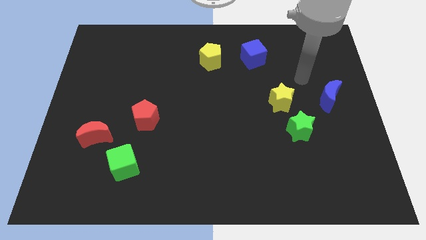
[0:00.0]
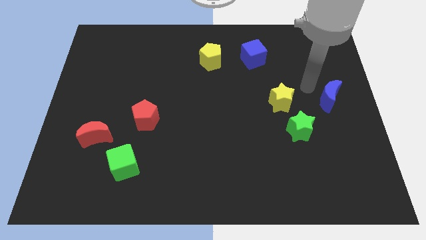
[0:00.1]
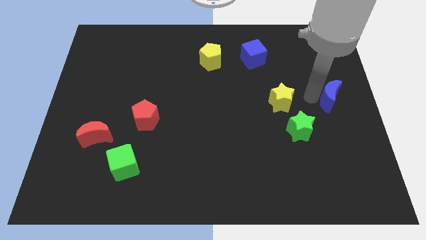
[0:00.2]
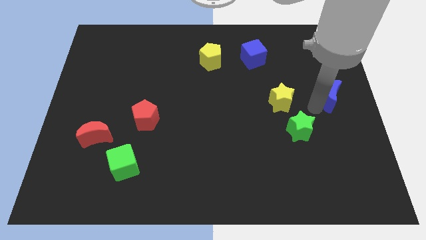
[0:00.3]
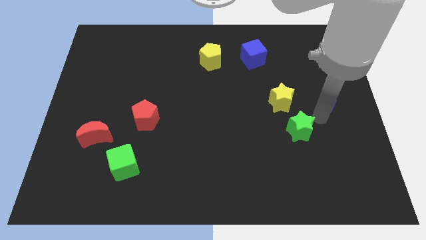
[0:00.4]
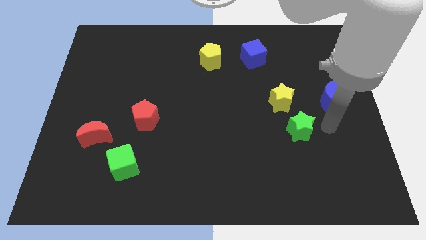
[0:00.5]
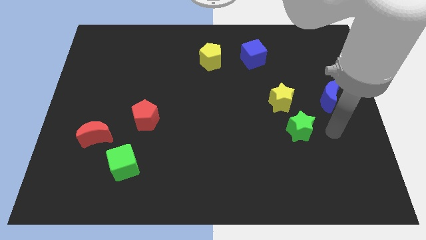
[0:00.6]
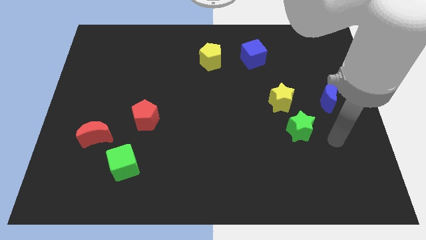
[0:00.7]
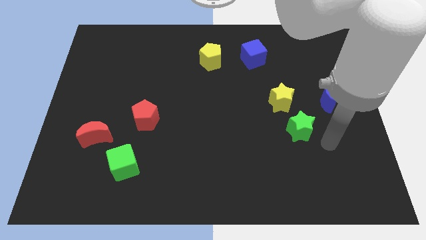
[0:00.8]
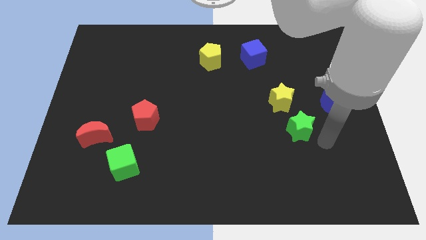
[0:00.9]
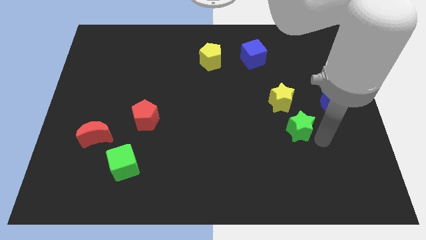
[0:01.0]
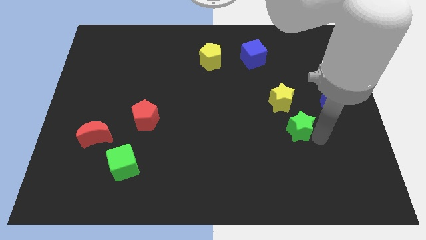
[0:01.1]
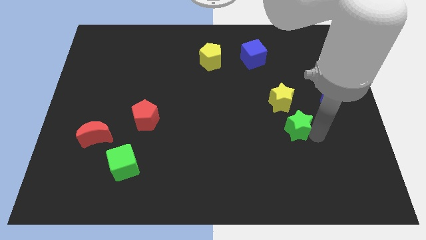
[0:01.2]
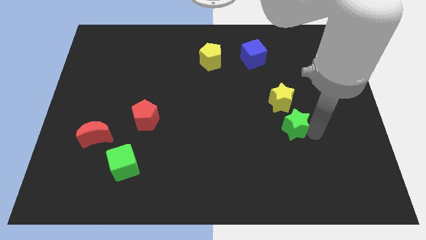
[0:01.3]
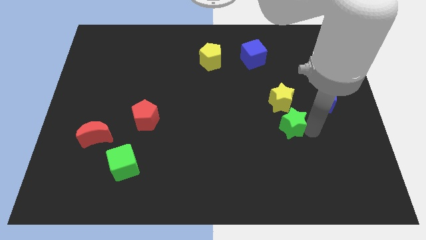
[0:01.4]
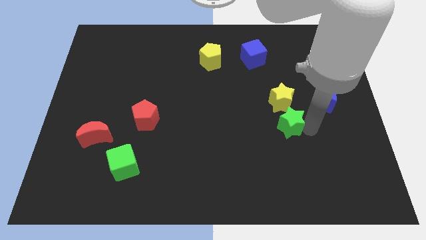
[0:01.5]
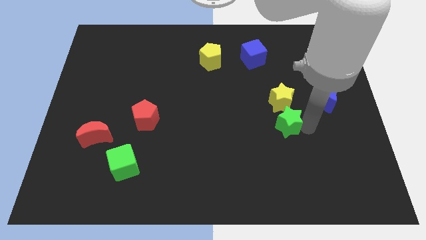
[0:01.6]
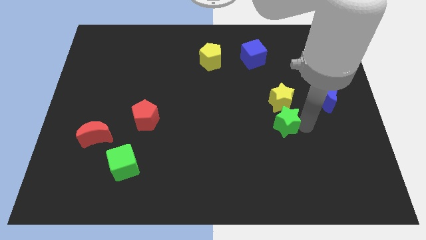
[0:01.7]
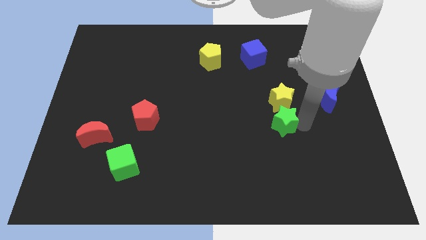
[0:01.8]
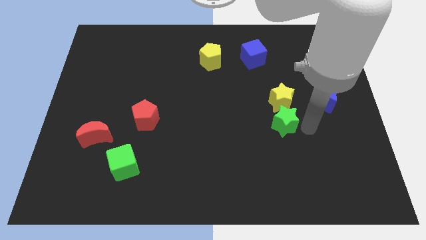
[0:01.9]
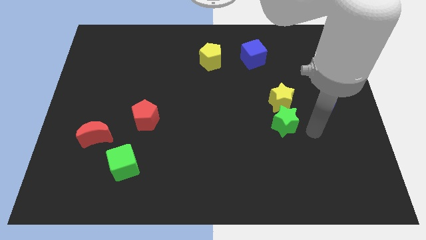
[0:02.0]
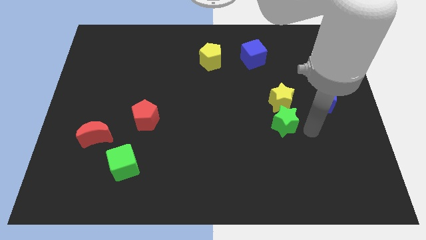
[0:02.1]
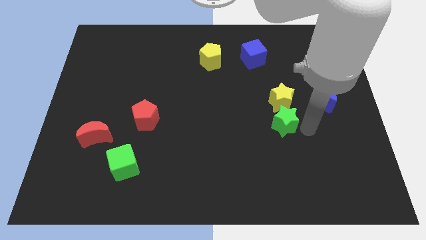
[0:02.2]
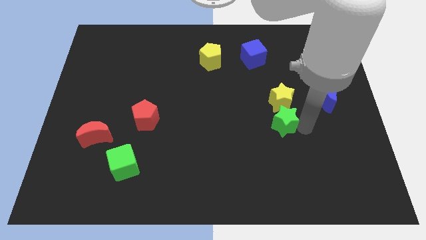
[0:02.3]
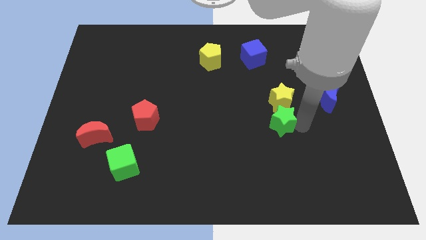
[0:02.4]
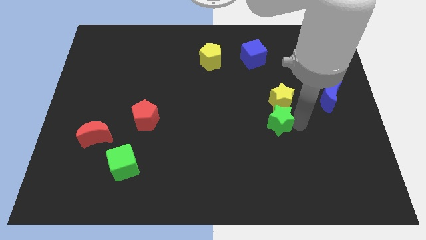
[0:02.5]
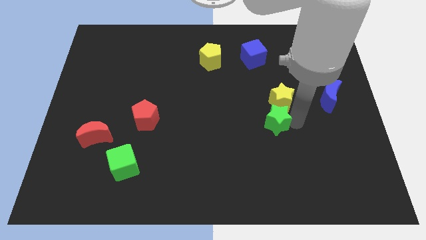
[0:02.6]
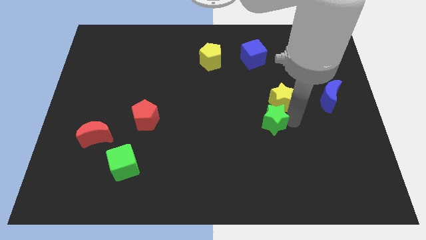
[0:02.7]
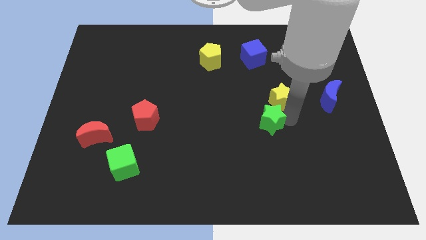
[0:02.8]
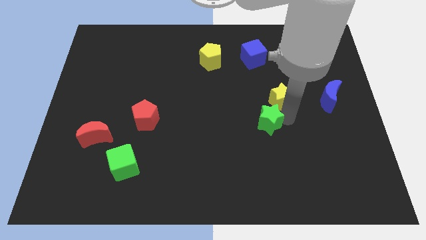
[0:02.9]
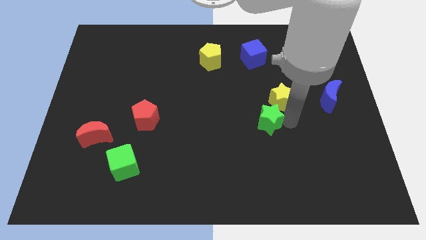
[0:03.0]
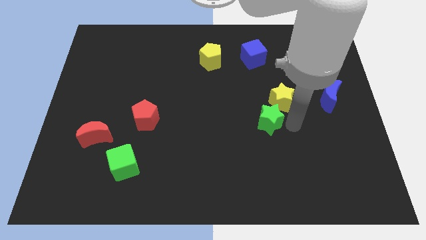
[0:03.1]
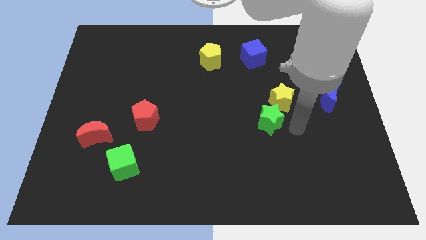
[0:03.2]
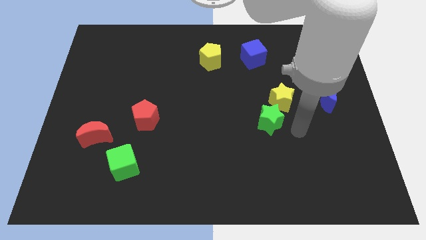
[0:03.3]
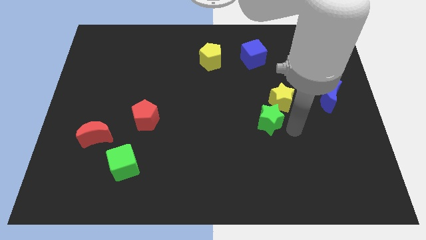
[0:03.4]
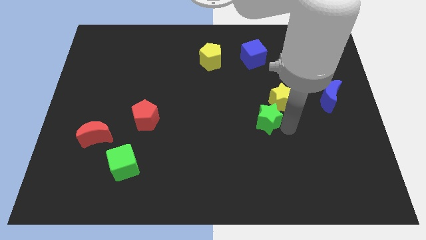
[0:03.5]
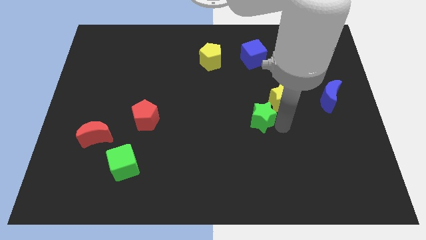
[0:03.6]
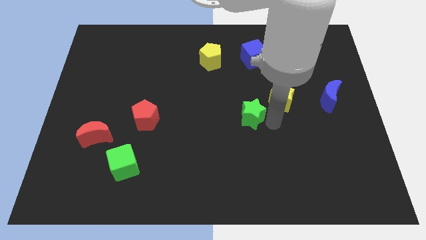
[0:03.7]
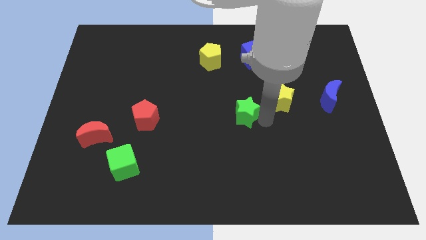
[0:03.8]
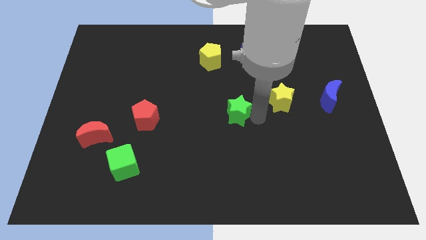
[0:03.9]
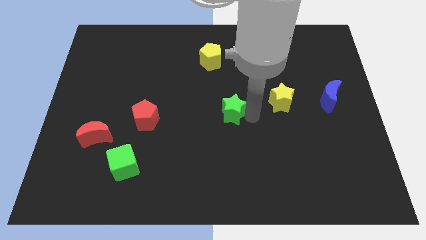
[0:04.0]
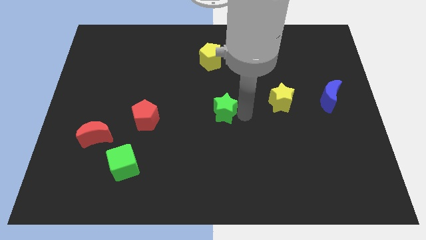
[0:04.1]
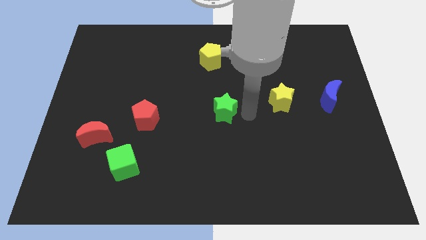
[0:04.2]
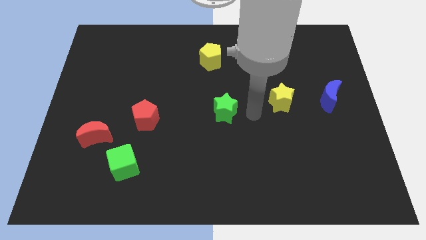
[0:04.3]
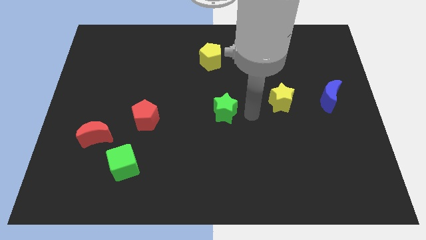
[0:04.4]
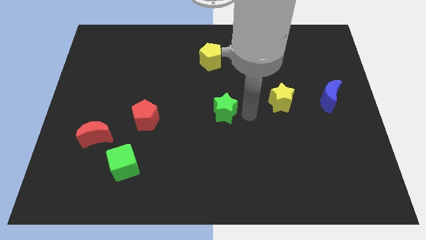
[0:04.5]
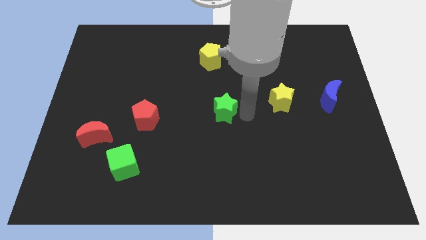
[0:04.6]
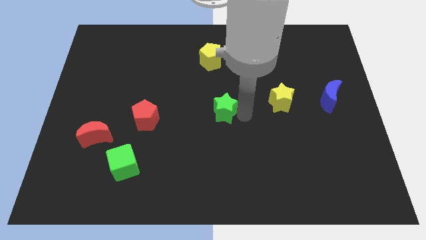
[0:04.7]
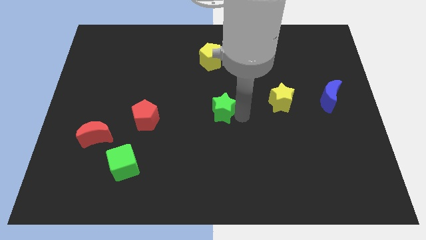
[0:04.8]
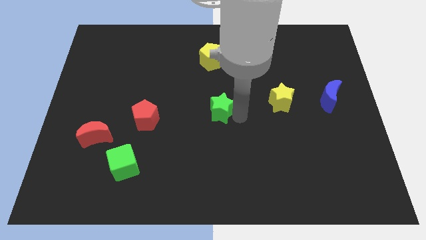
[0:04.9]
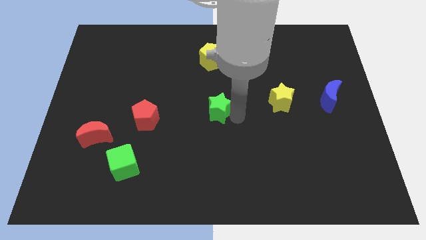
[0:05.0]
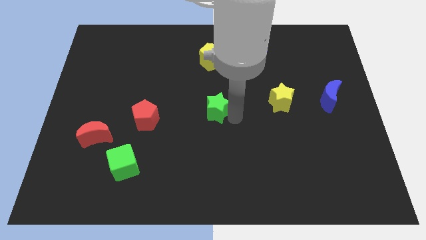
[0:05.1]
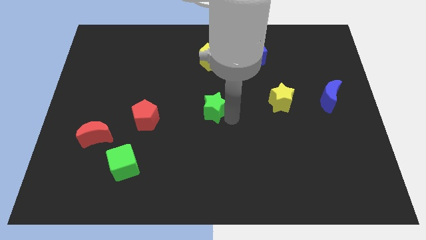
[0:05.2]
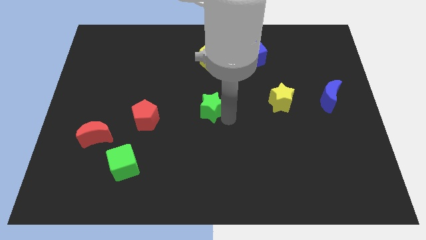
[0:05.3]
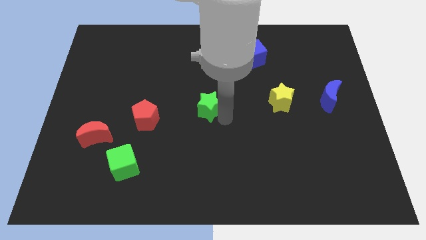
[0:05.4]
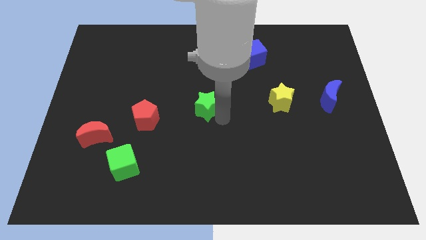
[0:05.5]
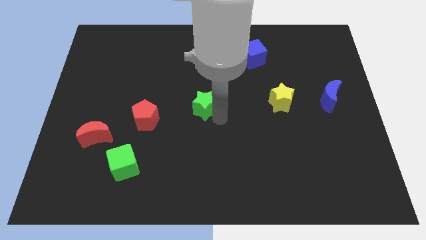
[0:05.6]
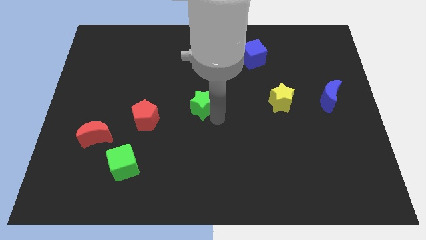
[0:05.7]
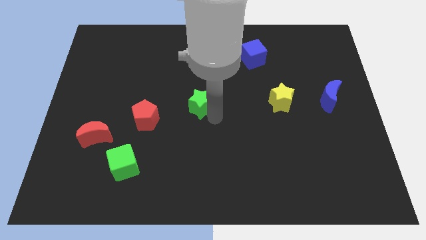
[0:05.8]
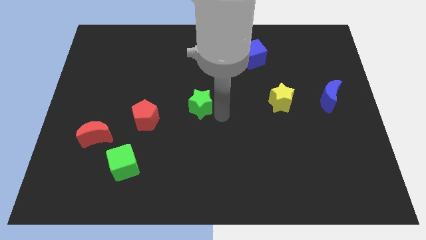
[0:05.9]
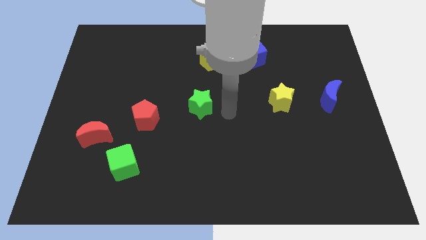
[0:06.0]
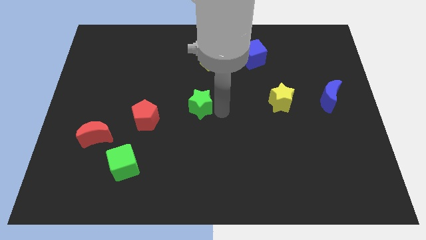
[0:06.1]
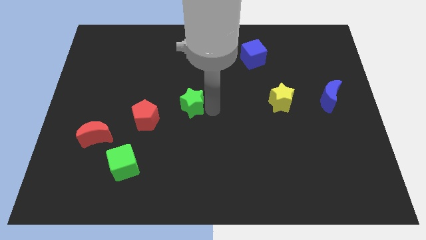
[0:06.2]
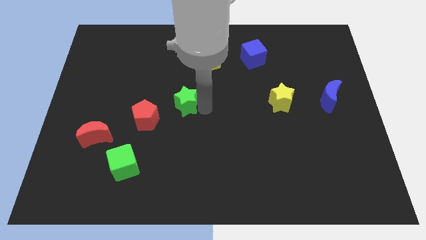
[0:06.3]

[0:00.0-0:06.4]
slide the green star to the top right side of the red pentagon

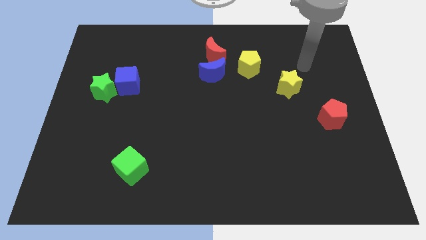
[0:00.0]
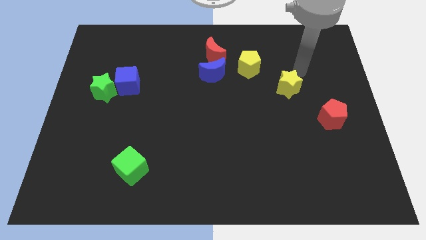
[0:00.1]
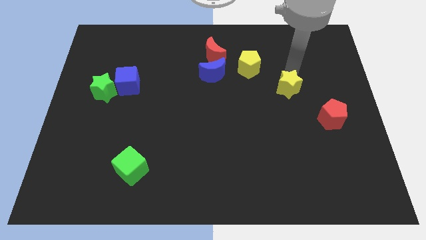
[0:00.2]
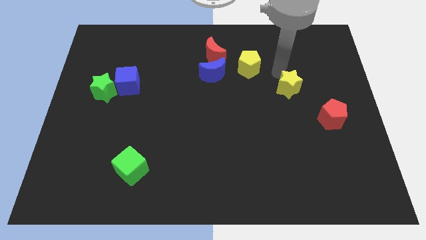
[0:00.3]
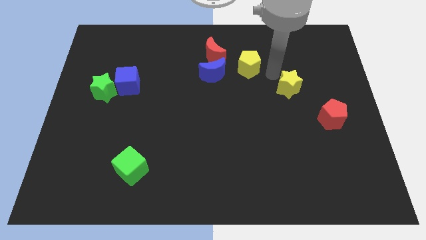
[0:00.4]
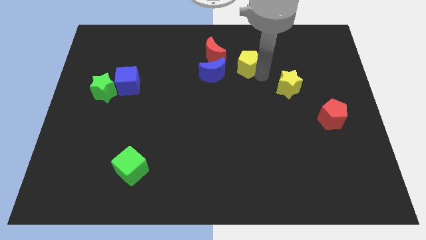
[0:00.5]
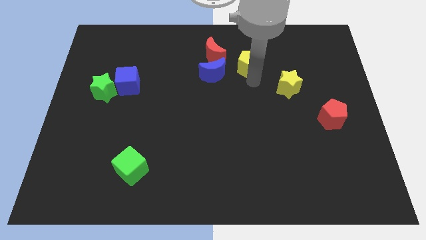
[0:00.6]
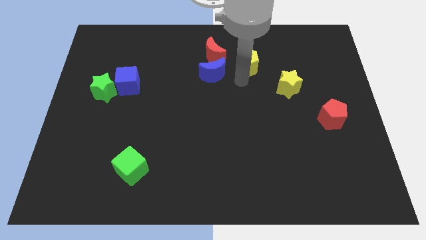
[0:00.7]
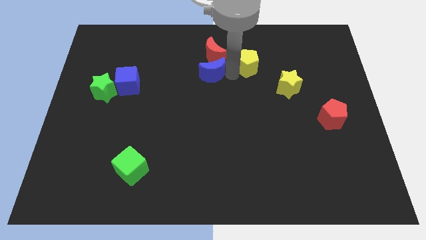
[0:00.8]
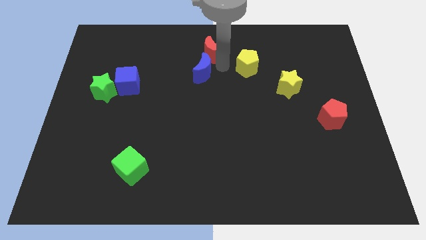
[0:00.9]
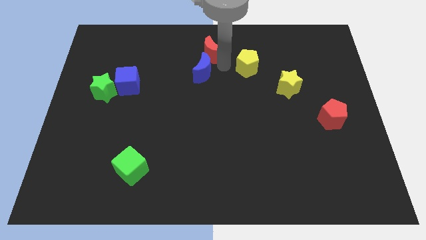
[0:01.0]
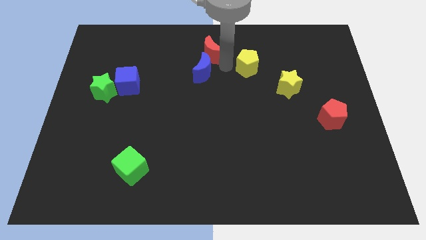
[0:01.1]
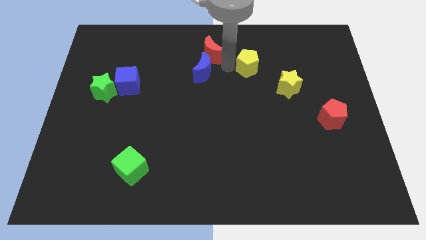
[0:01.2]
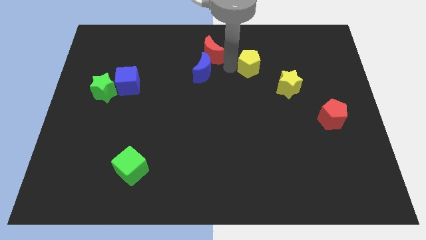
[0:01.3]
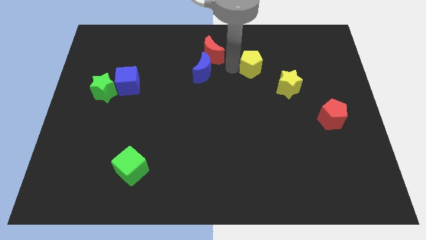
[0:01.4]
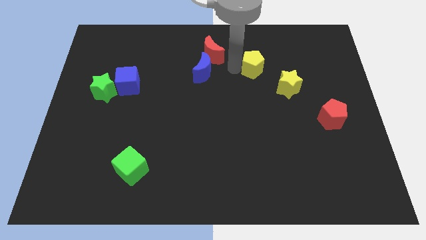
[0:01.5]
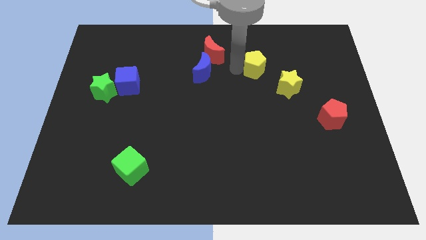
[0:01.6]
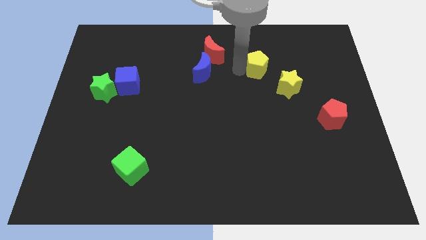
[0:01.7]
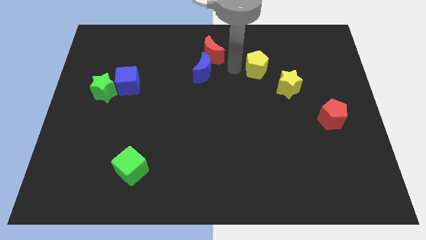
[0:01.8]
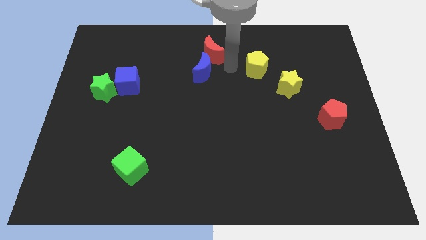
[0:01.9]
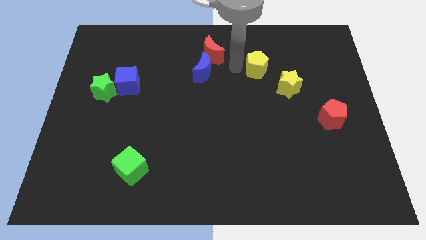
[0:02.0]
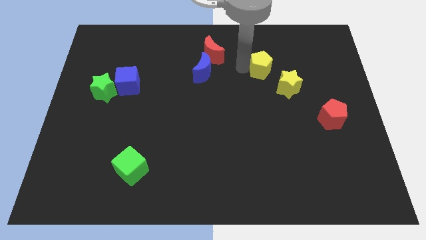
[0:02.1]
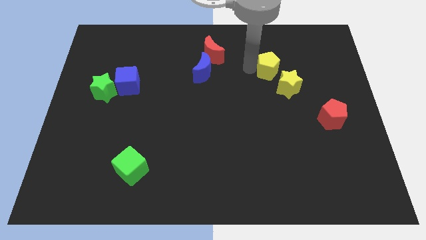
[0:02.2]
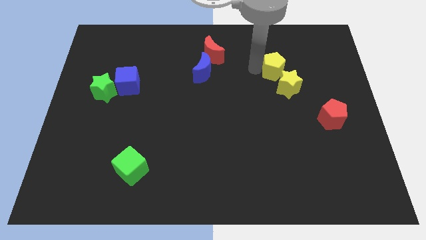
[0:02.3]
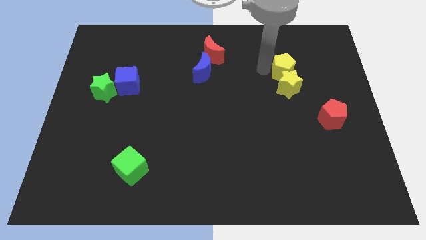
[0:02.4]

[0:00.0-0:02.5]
put the yellow pentagon diagonally up and to the right of the yellow star
